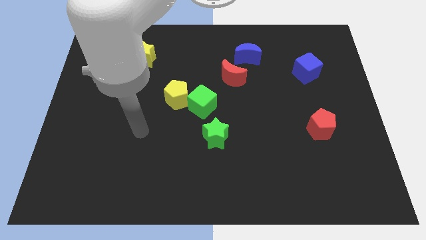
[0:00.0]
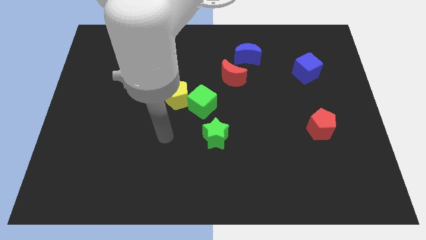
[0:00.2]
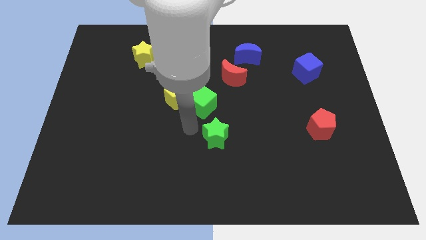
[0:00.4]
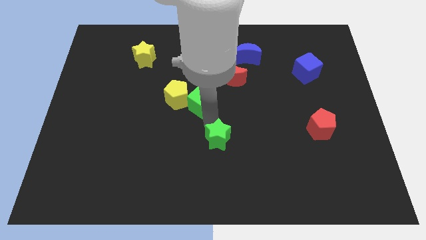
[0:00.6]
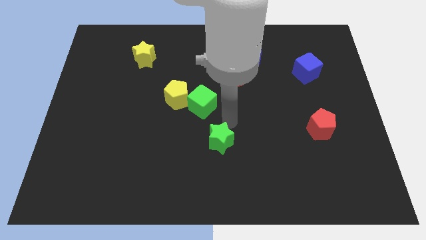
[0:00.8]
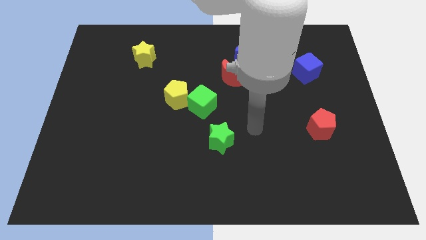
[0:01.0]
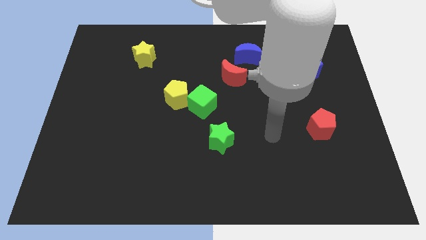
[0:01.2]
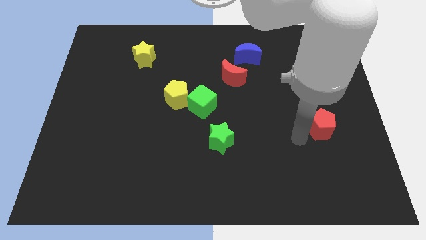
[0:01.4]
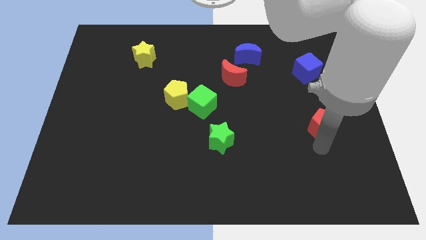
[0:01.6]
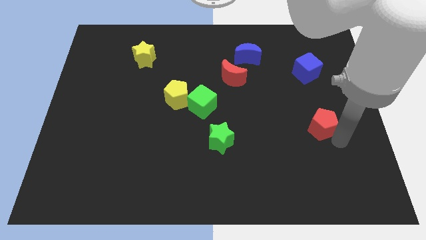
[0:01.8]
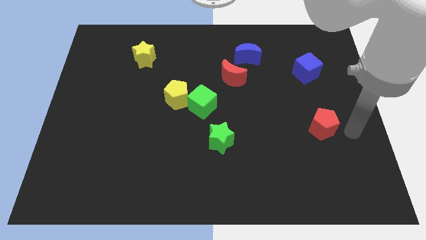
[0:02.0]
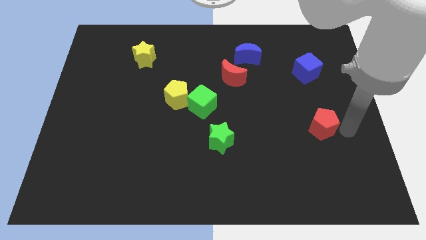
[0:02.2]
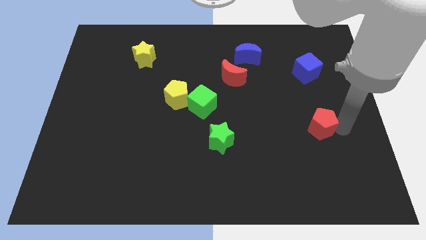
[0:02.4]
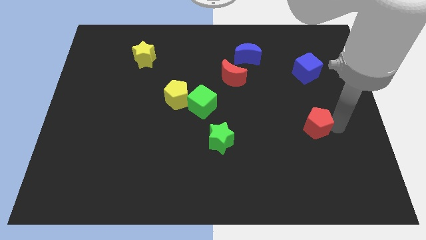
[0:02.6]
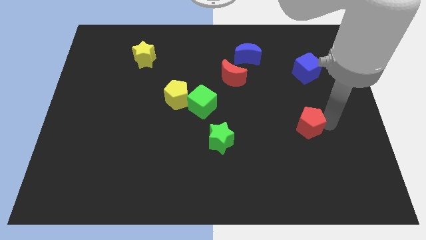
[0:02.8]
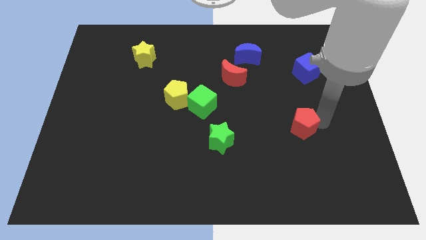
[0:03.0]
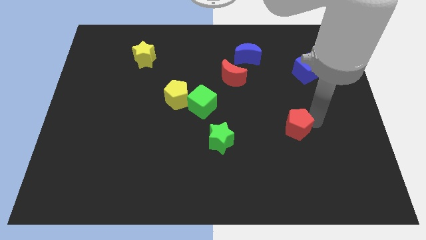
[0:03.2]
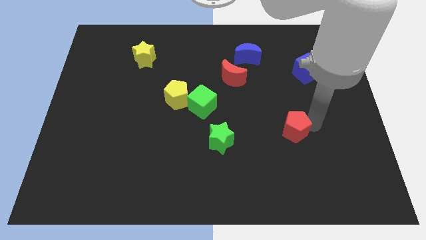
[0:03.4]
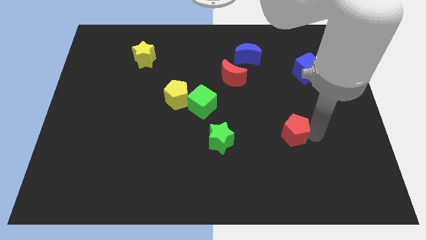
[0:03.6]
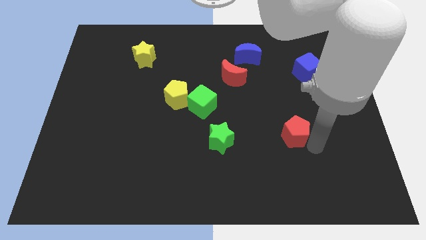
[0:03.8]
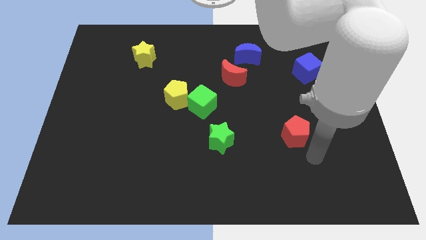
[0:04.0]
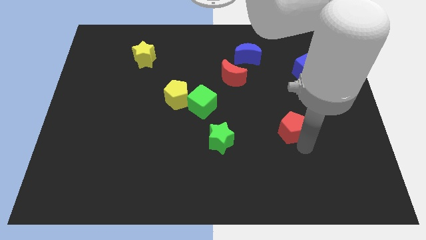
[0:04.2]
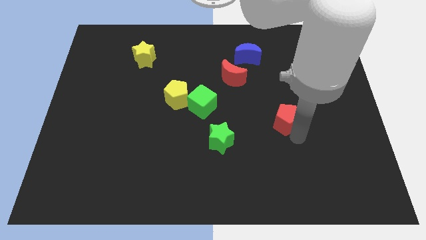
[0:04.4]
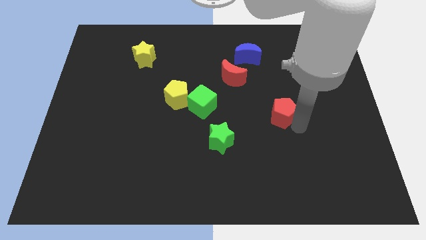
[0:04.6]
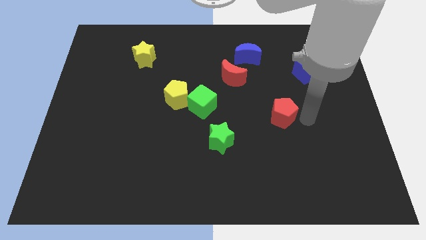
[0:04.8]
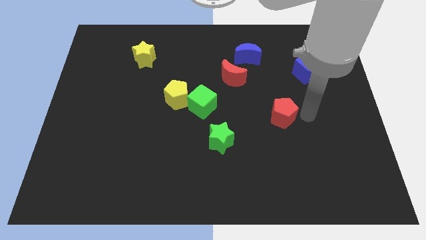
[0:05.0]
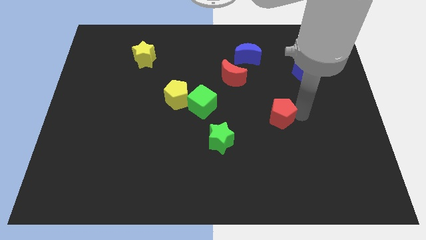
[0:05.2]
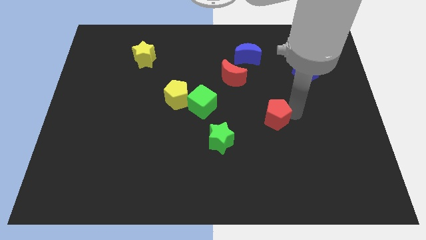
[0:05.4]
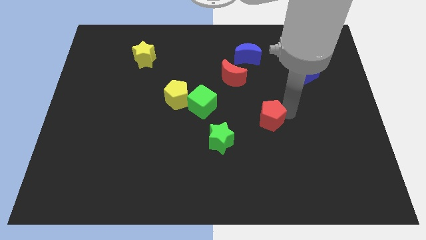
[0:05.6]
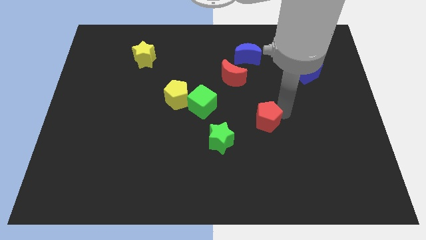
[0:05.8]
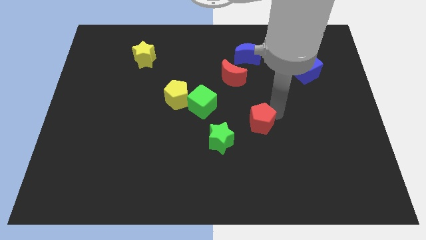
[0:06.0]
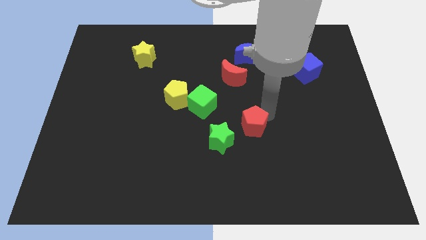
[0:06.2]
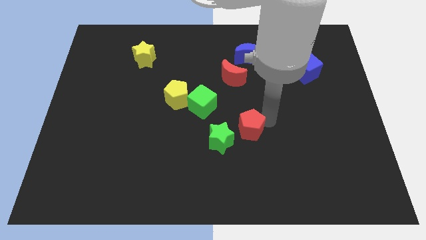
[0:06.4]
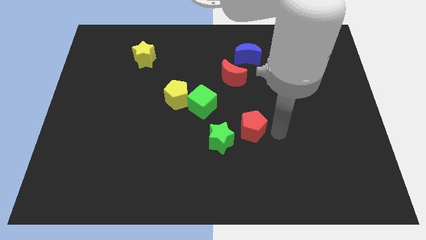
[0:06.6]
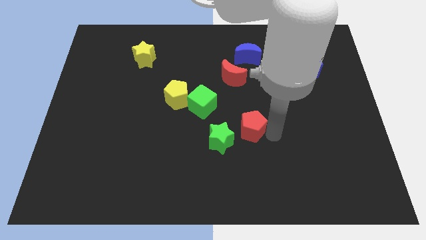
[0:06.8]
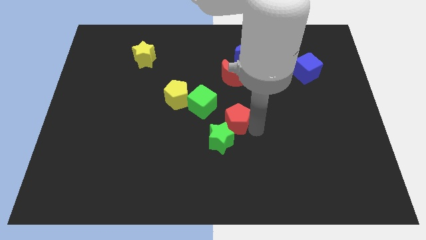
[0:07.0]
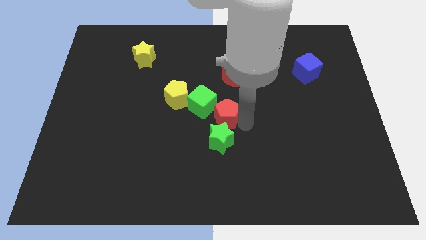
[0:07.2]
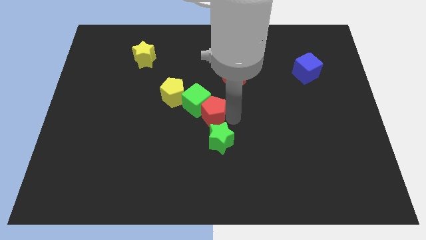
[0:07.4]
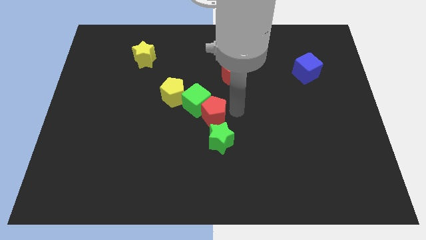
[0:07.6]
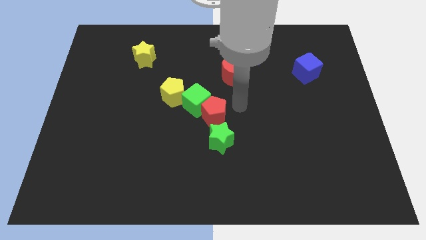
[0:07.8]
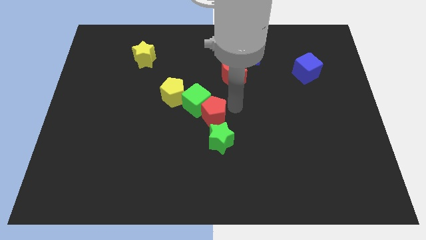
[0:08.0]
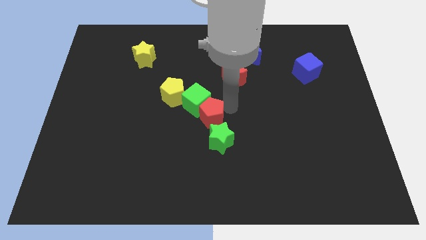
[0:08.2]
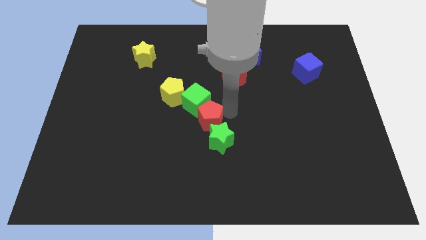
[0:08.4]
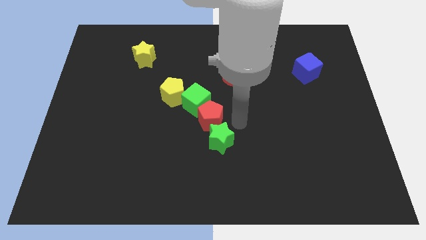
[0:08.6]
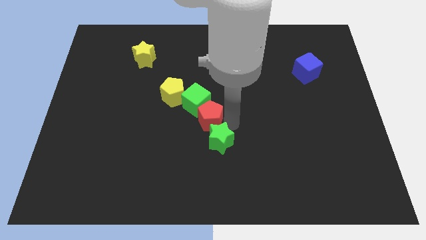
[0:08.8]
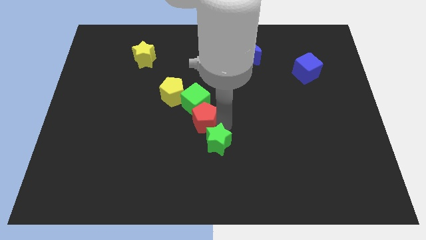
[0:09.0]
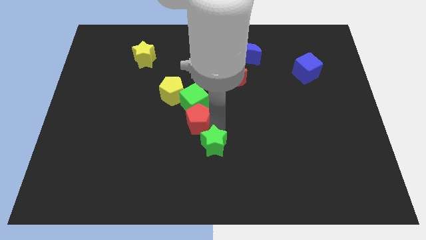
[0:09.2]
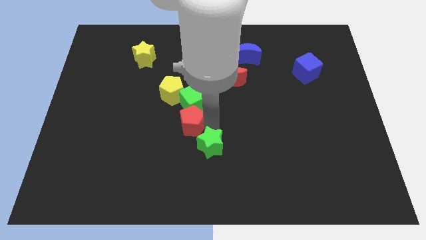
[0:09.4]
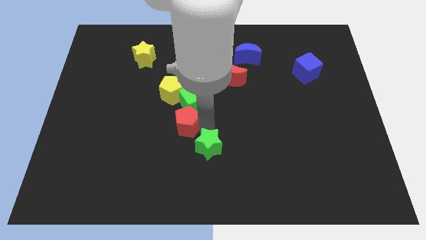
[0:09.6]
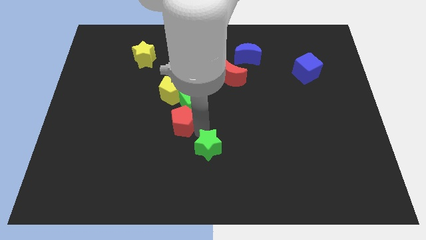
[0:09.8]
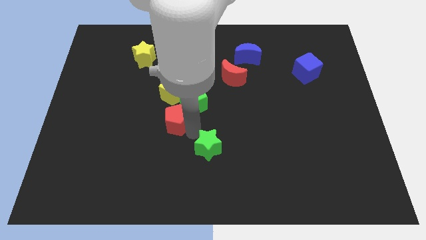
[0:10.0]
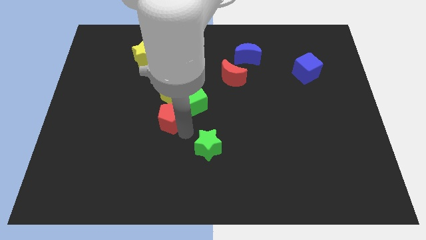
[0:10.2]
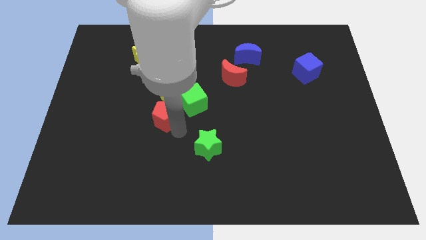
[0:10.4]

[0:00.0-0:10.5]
push the red pentagon to the bottom left side of the yellow pentagon

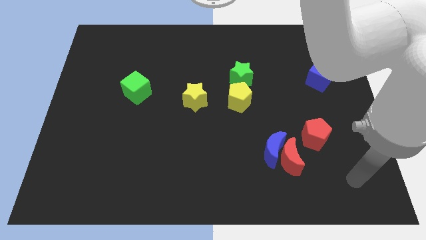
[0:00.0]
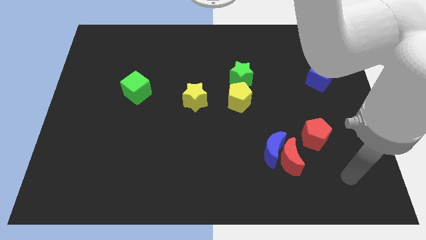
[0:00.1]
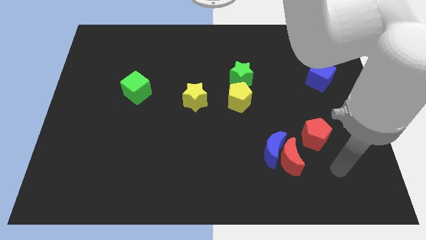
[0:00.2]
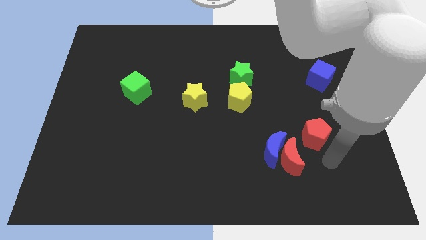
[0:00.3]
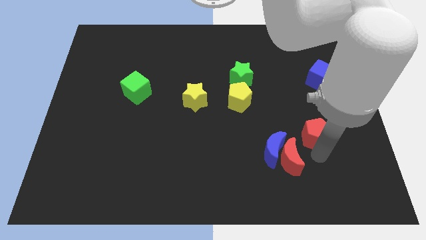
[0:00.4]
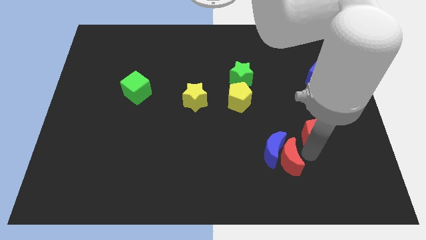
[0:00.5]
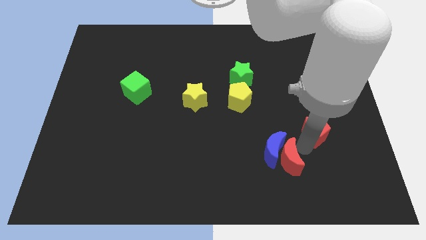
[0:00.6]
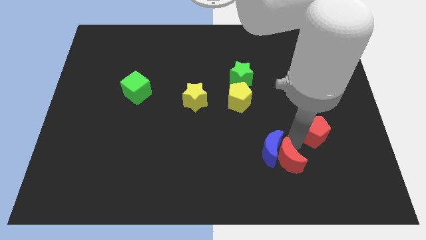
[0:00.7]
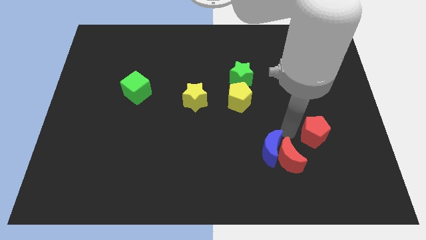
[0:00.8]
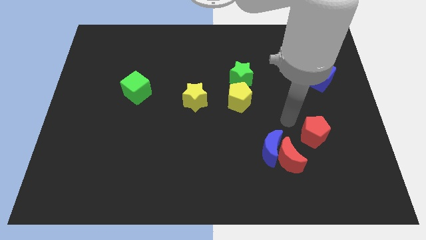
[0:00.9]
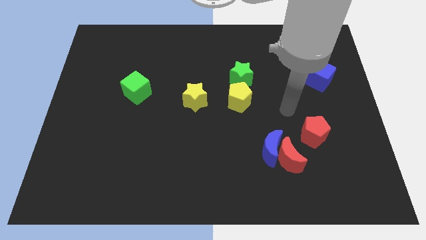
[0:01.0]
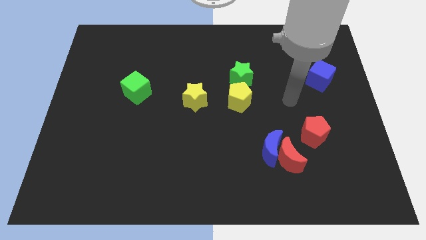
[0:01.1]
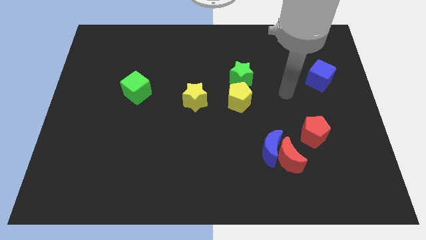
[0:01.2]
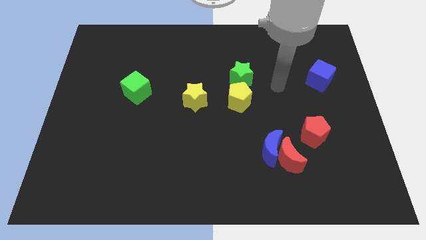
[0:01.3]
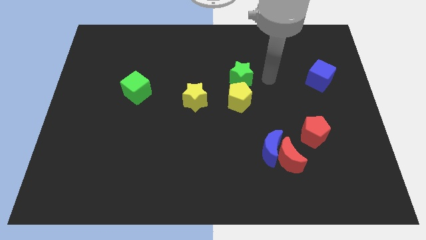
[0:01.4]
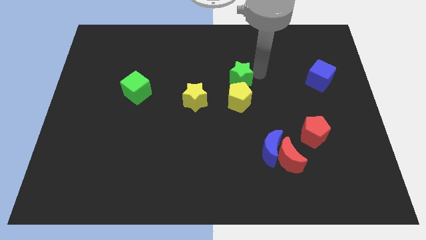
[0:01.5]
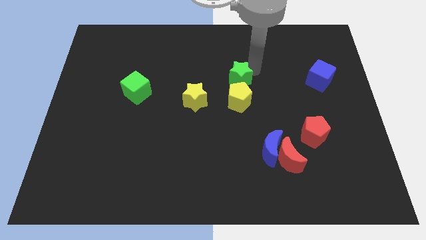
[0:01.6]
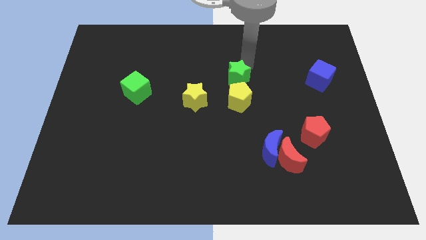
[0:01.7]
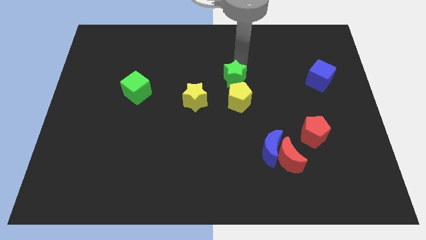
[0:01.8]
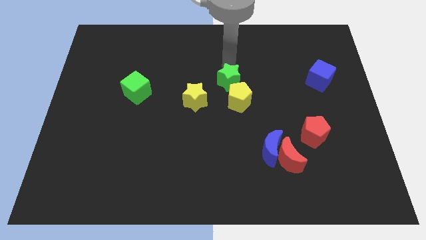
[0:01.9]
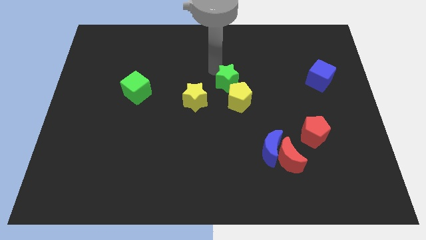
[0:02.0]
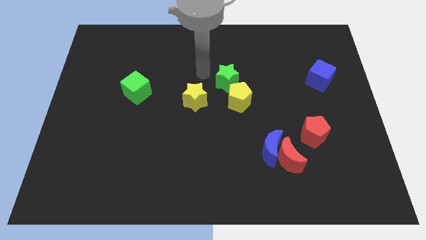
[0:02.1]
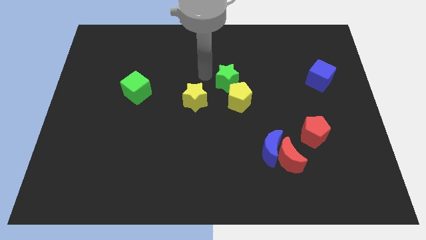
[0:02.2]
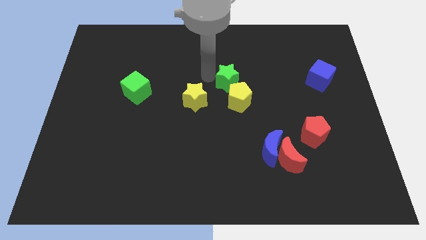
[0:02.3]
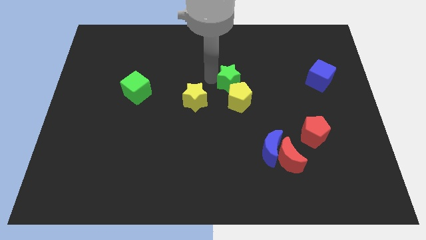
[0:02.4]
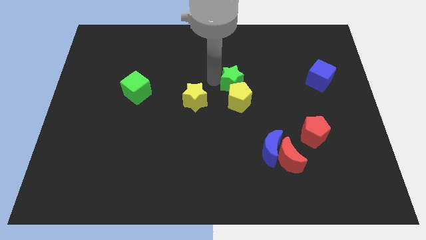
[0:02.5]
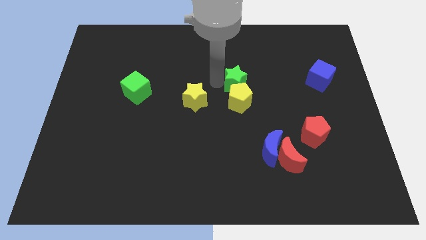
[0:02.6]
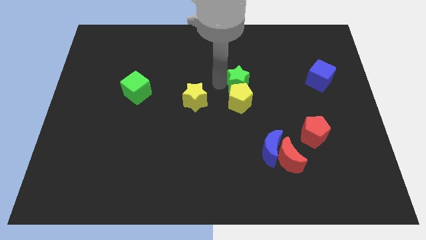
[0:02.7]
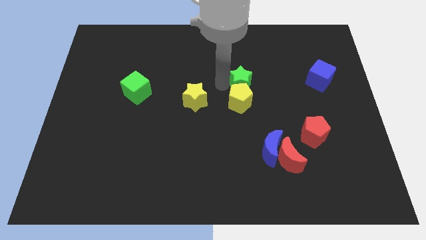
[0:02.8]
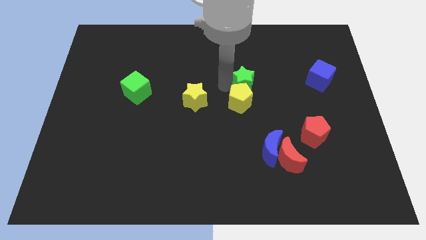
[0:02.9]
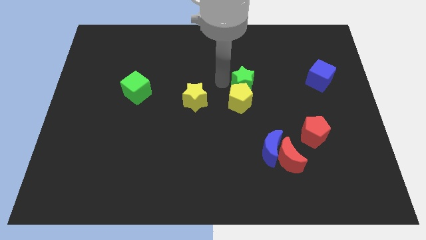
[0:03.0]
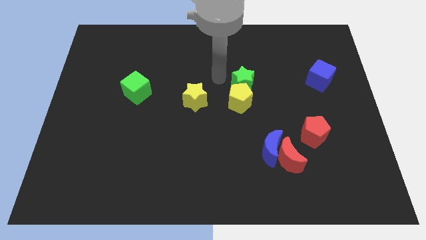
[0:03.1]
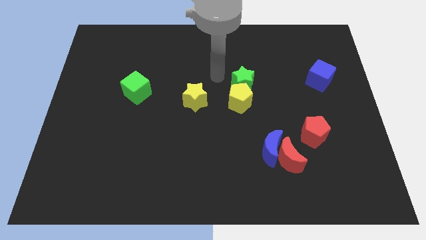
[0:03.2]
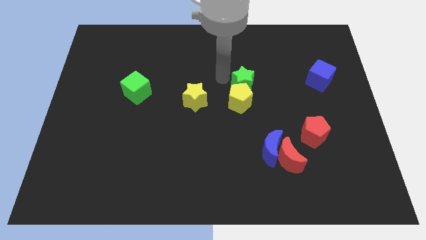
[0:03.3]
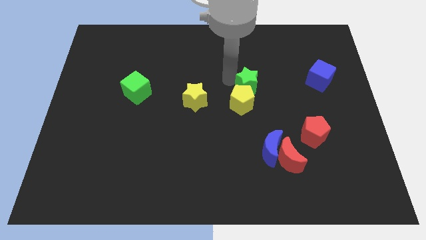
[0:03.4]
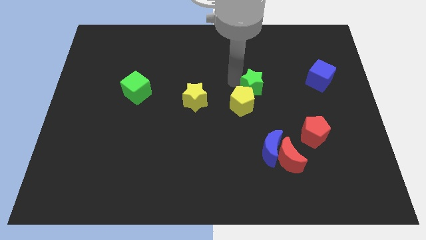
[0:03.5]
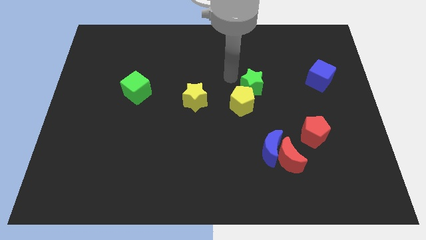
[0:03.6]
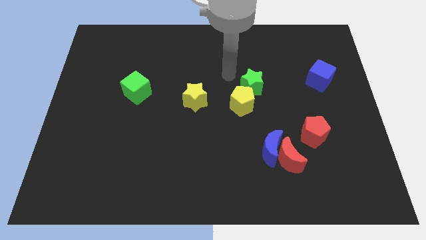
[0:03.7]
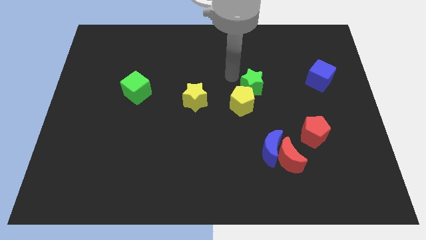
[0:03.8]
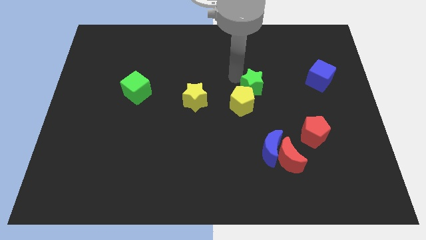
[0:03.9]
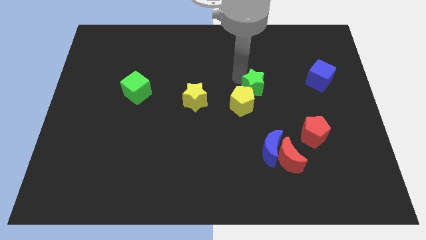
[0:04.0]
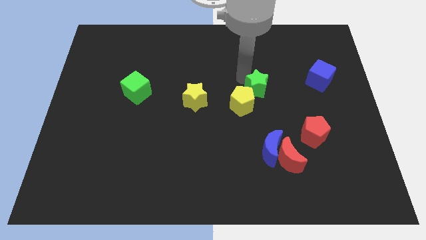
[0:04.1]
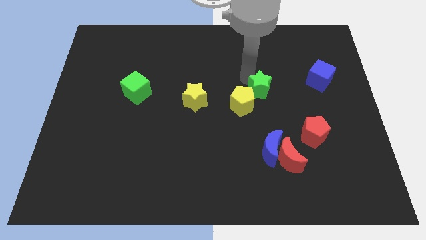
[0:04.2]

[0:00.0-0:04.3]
slide the green star just right of the yellow pentagon
